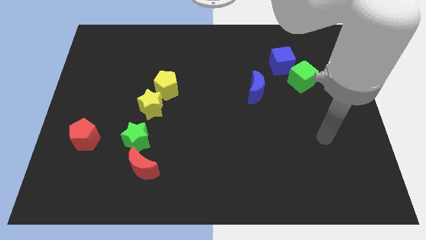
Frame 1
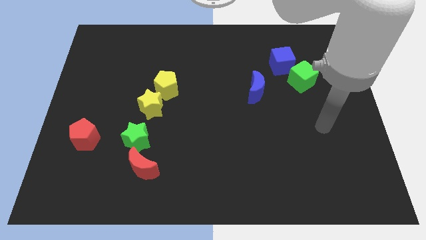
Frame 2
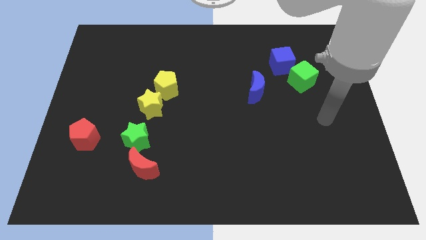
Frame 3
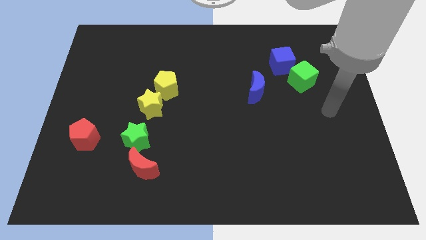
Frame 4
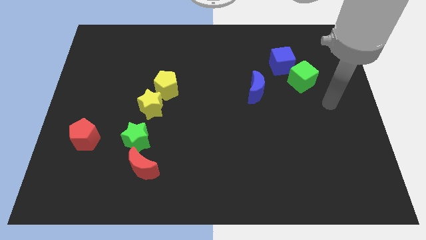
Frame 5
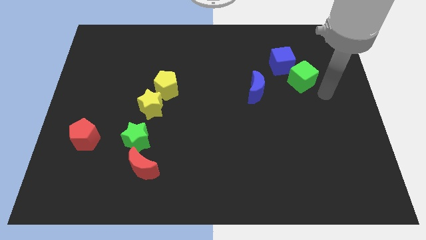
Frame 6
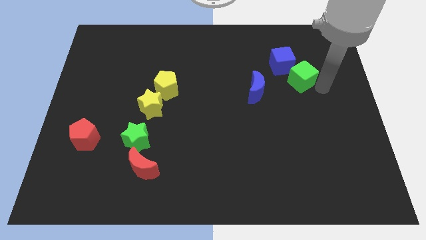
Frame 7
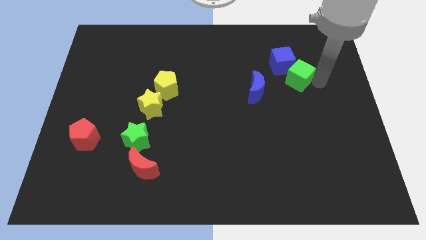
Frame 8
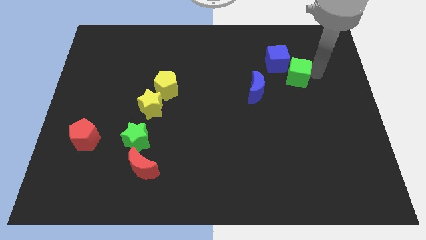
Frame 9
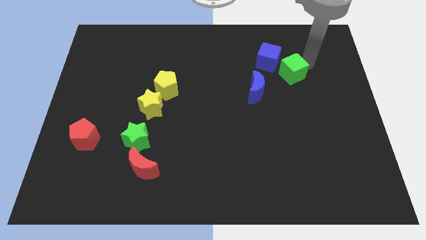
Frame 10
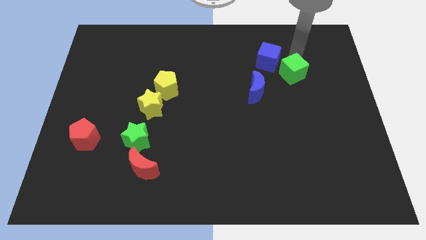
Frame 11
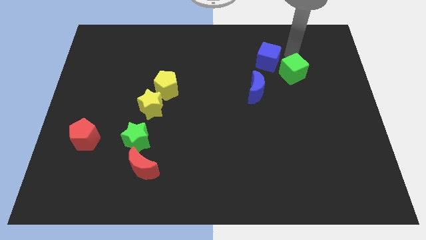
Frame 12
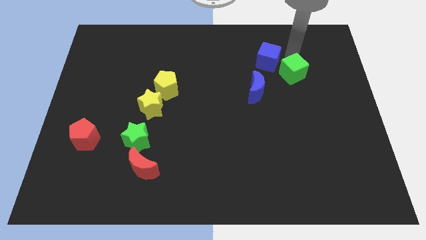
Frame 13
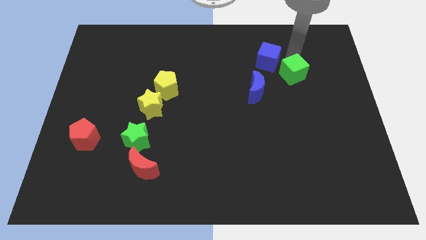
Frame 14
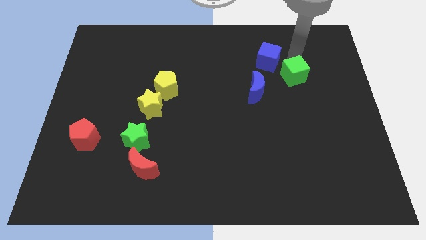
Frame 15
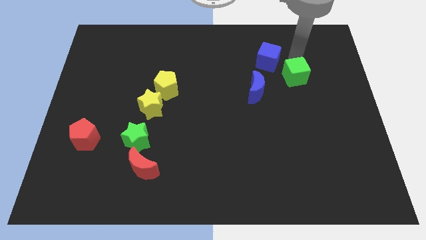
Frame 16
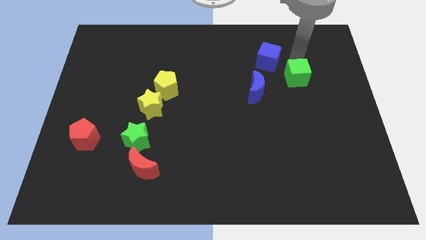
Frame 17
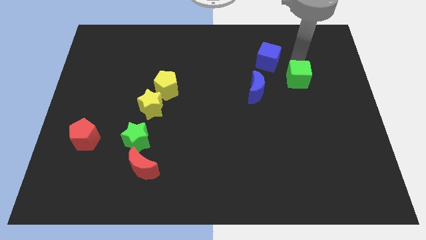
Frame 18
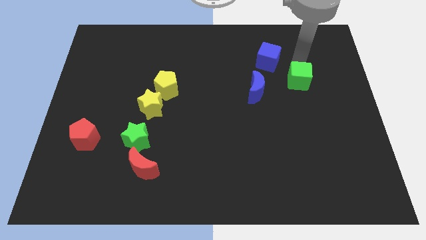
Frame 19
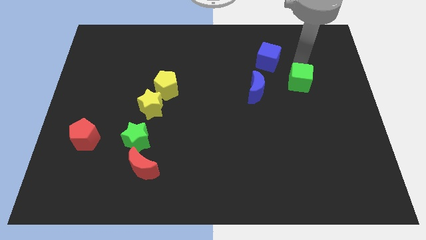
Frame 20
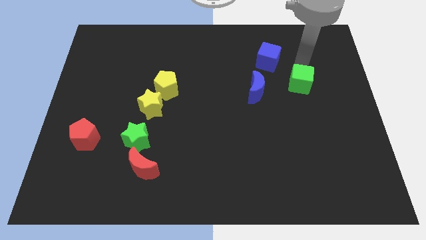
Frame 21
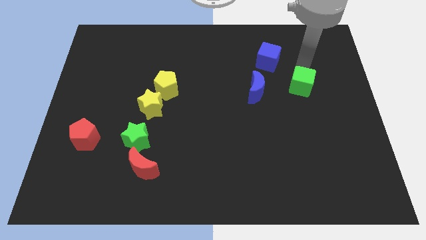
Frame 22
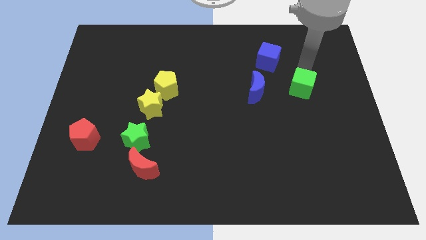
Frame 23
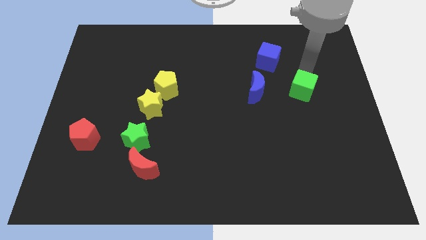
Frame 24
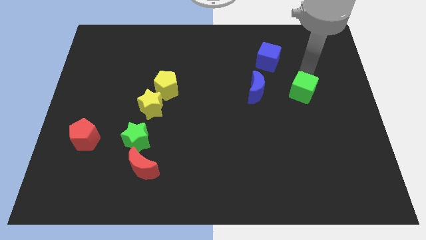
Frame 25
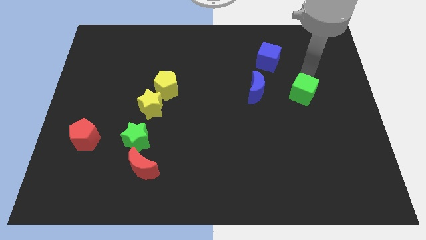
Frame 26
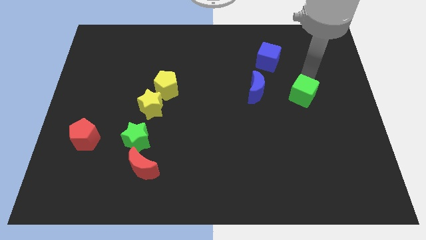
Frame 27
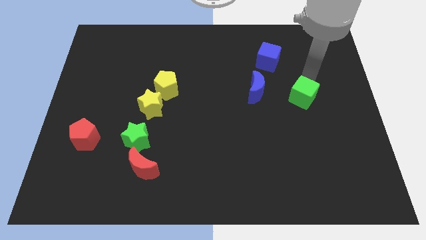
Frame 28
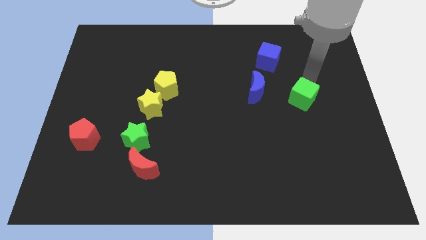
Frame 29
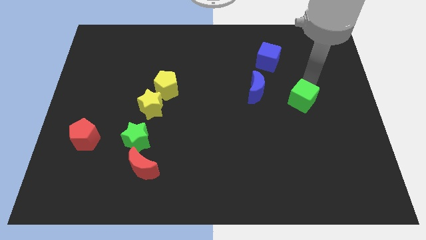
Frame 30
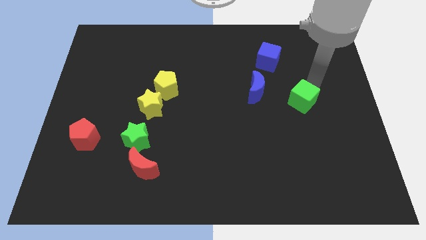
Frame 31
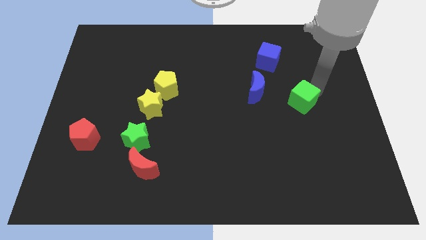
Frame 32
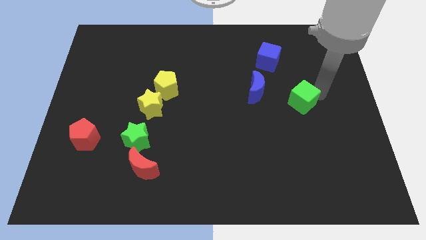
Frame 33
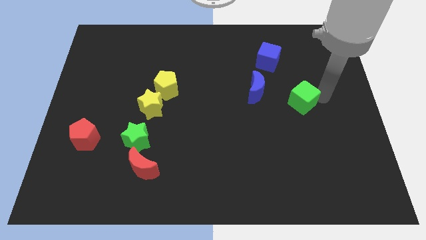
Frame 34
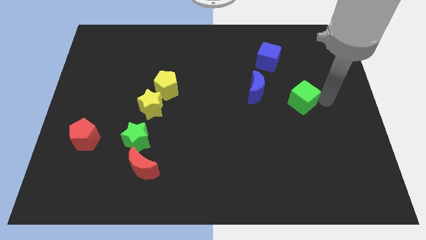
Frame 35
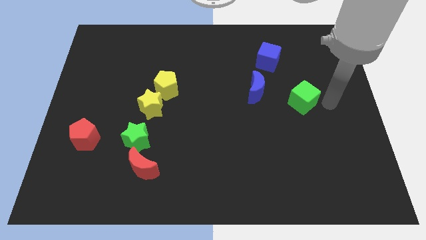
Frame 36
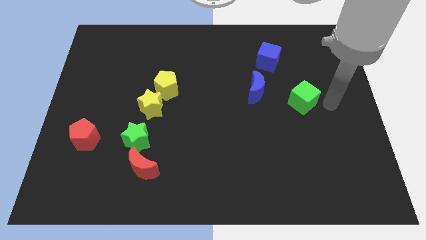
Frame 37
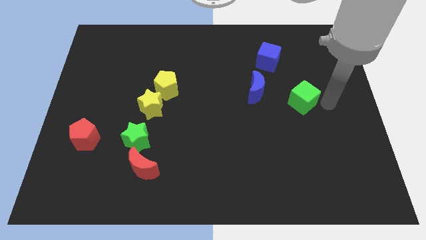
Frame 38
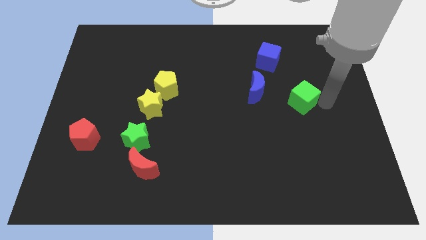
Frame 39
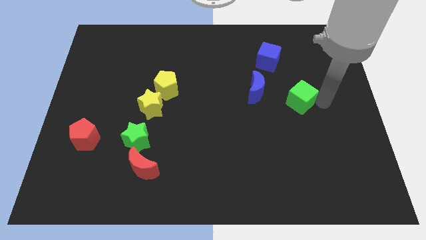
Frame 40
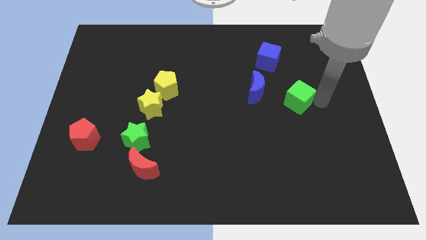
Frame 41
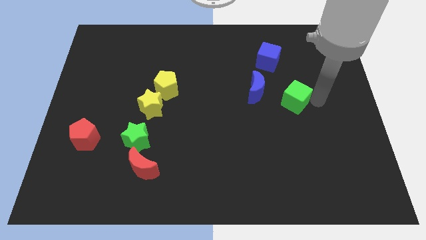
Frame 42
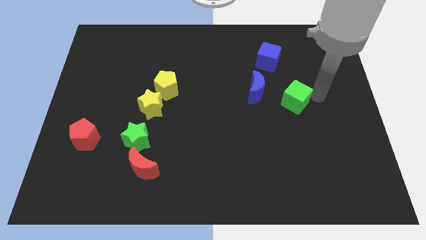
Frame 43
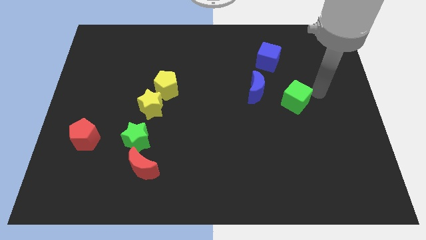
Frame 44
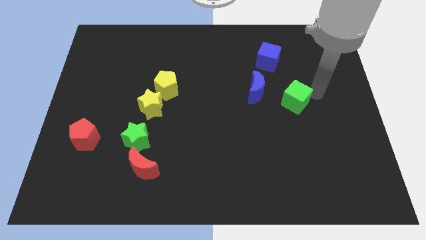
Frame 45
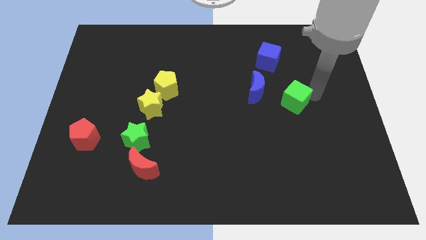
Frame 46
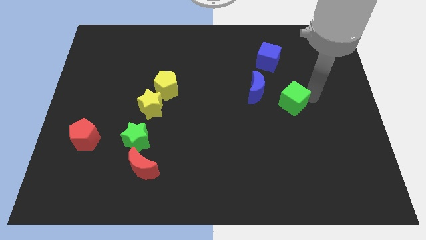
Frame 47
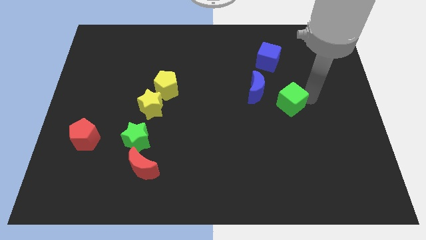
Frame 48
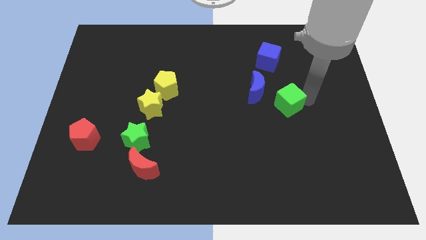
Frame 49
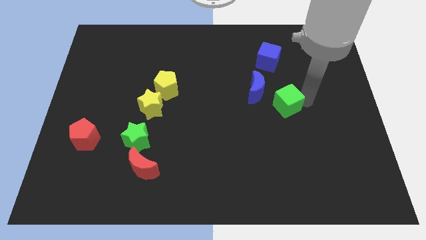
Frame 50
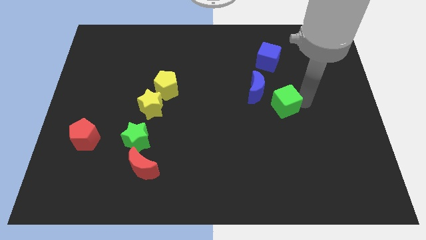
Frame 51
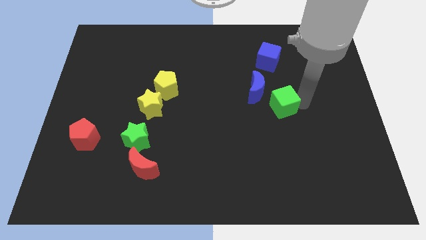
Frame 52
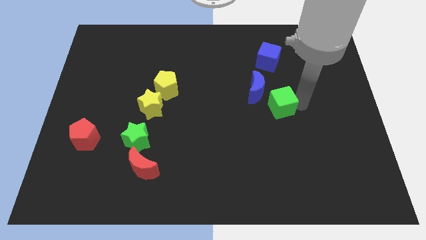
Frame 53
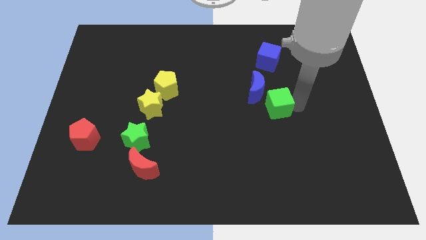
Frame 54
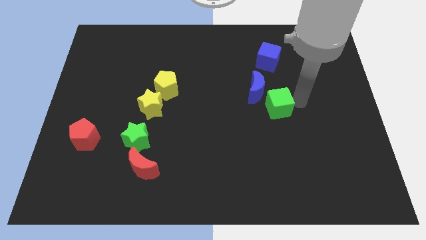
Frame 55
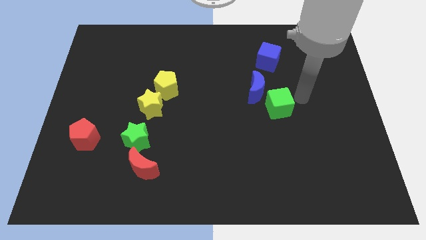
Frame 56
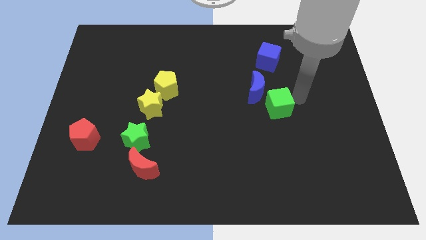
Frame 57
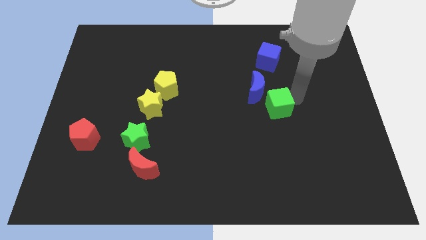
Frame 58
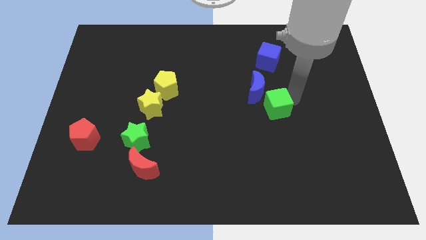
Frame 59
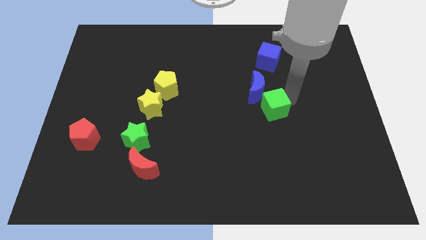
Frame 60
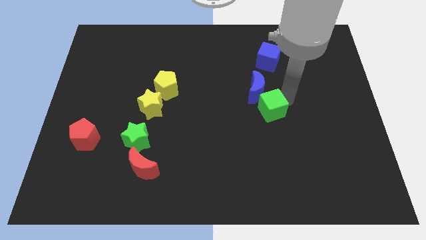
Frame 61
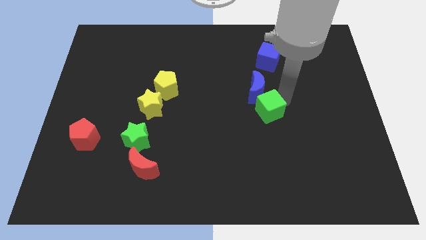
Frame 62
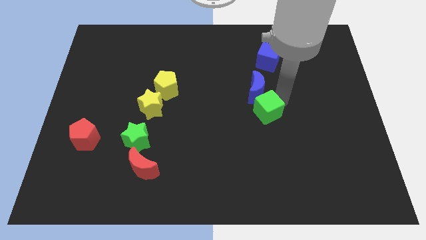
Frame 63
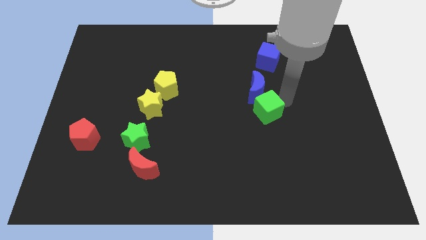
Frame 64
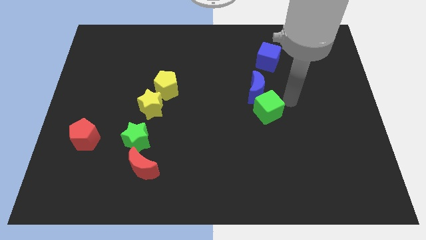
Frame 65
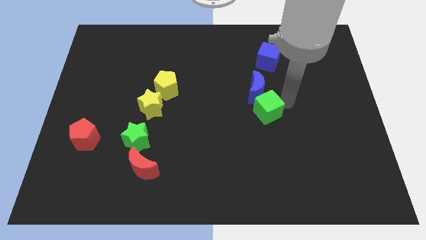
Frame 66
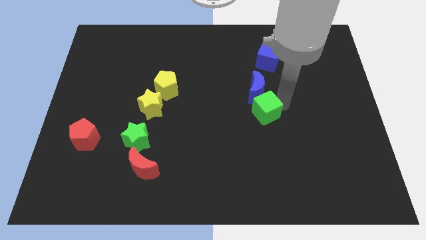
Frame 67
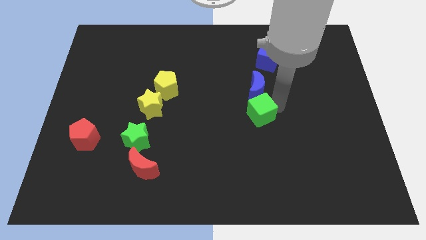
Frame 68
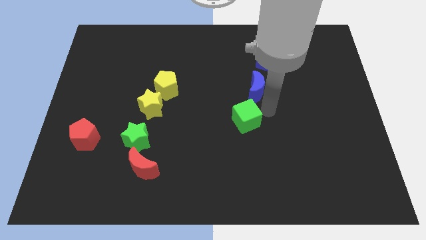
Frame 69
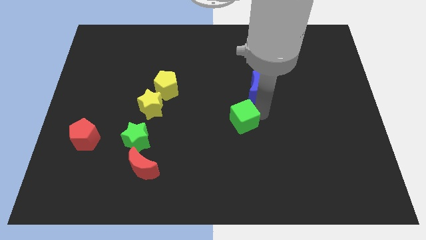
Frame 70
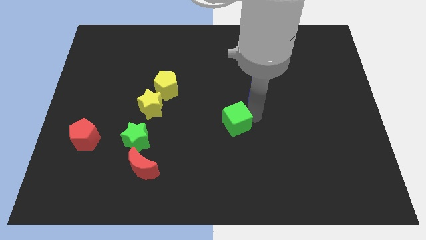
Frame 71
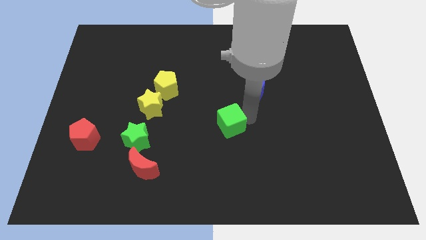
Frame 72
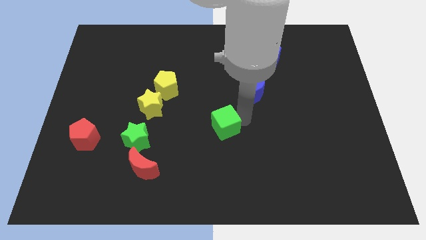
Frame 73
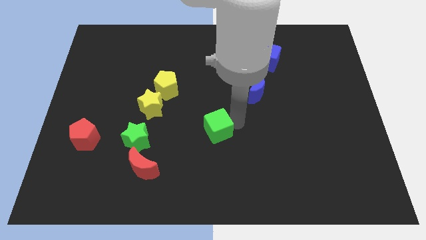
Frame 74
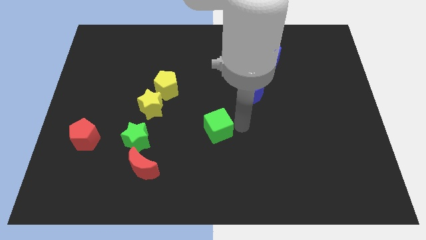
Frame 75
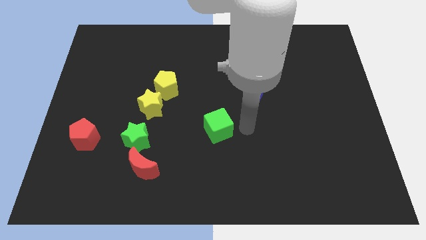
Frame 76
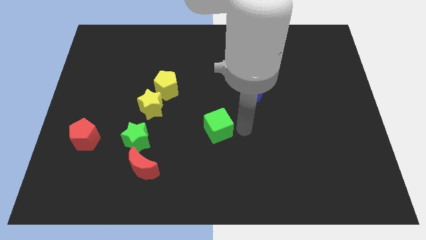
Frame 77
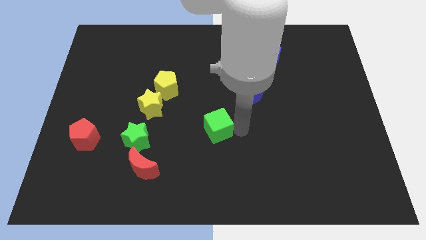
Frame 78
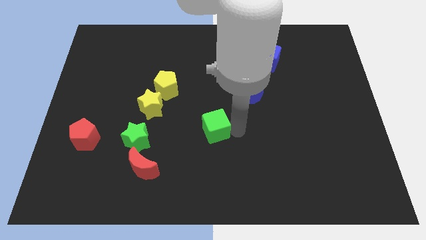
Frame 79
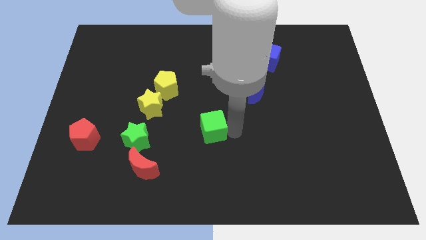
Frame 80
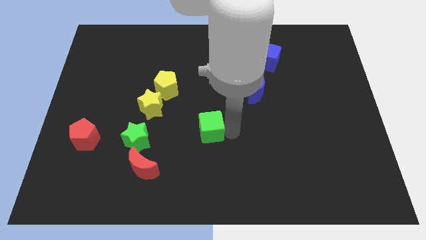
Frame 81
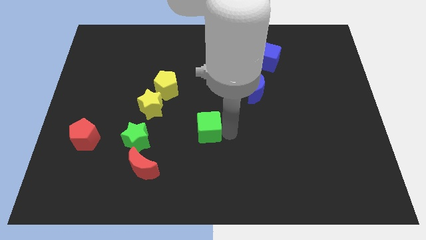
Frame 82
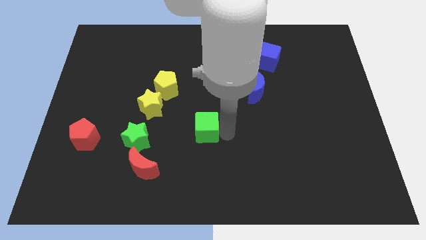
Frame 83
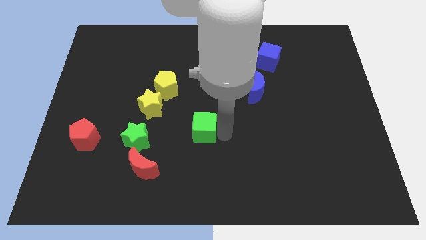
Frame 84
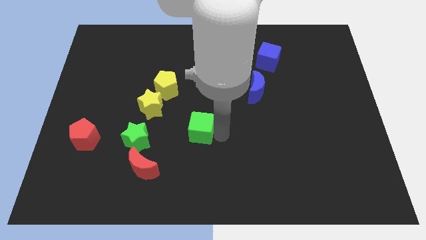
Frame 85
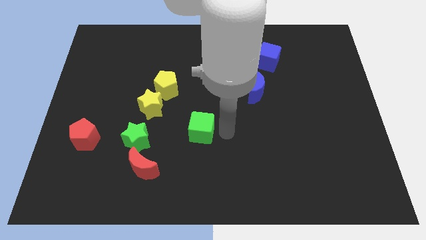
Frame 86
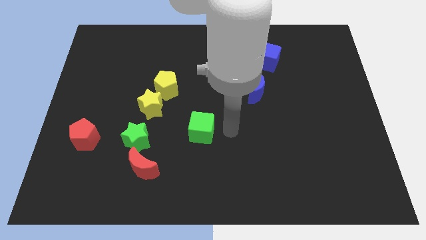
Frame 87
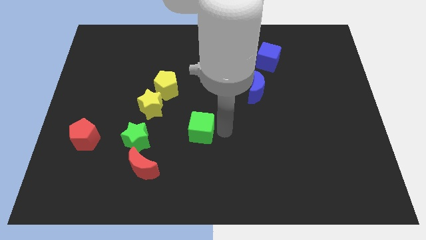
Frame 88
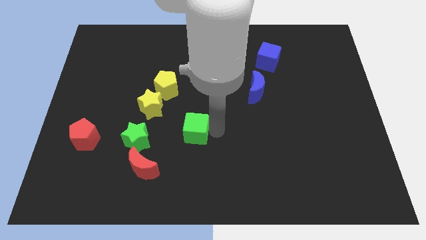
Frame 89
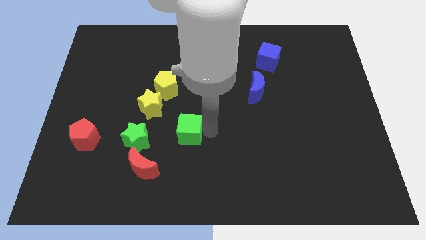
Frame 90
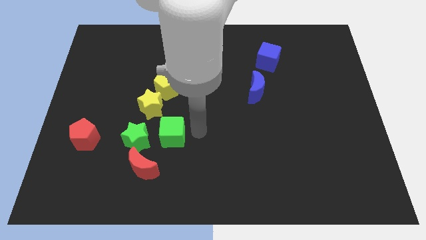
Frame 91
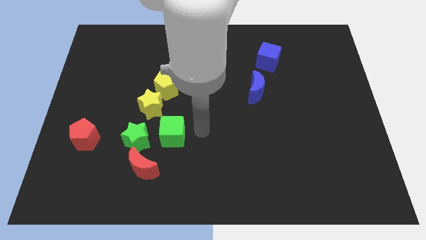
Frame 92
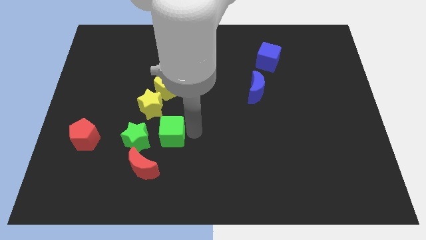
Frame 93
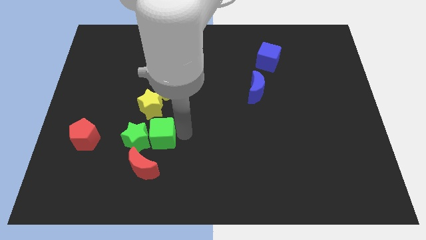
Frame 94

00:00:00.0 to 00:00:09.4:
slide the green cube towards the green star
